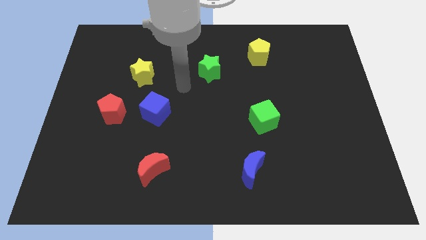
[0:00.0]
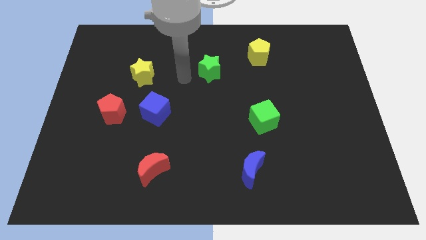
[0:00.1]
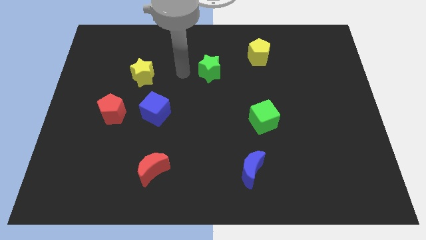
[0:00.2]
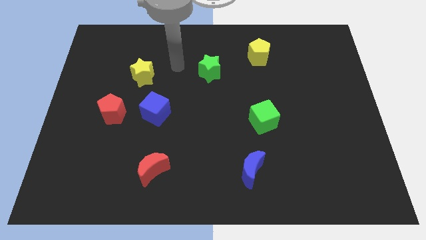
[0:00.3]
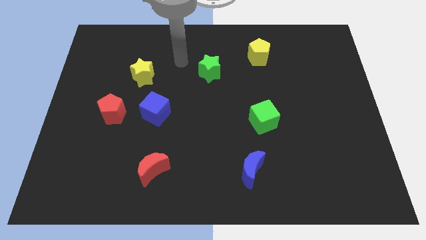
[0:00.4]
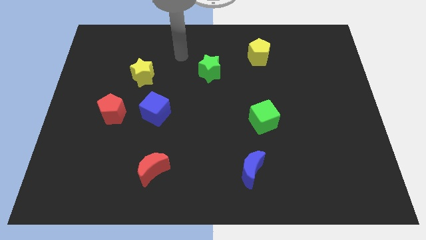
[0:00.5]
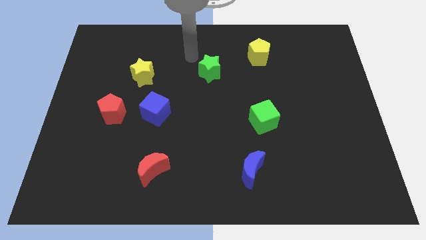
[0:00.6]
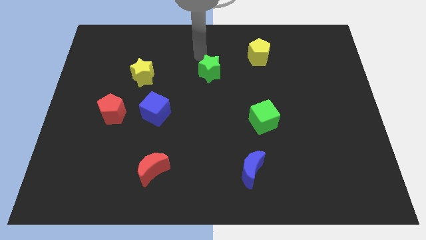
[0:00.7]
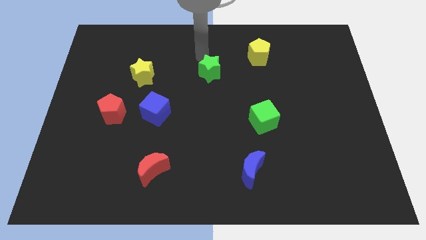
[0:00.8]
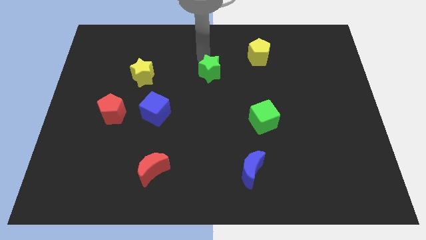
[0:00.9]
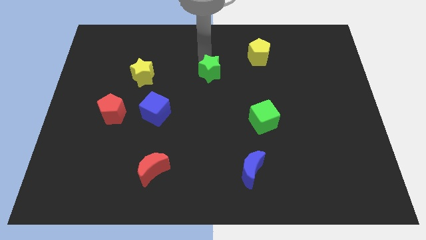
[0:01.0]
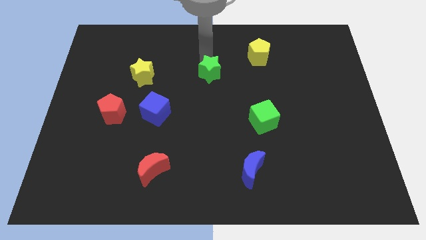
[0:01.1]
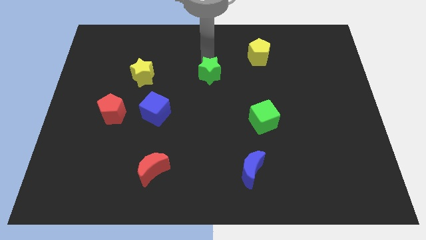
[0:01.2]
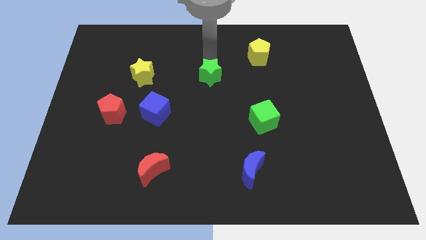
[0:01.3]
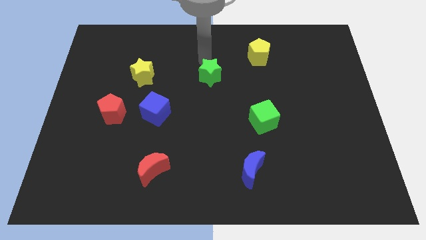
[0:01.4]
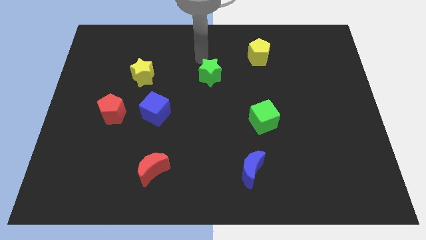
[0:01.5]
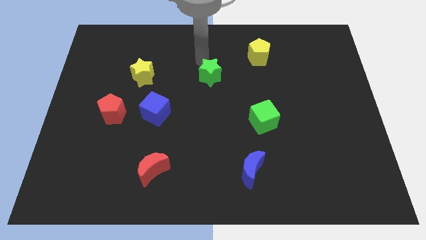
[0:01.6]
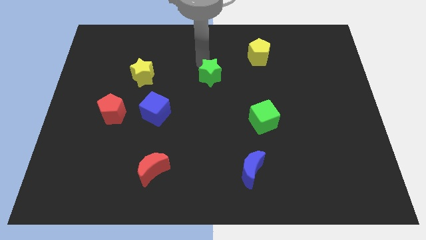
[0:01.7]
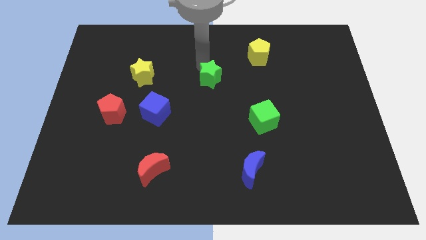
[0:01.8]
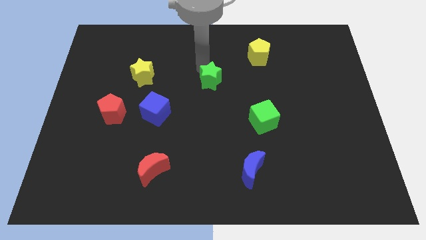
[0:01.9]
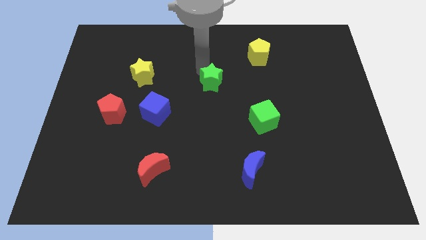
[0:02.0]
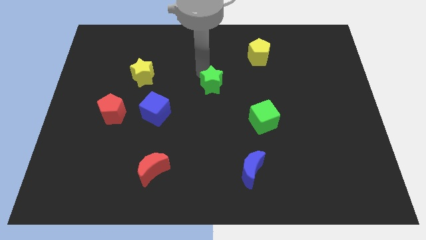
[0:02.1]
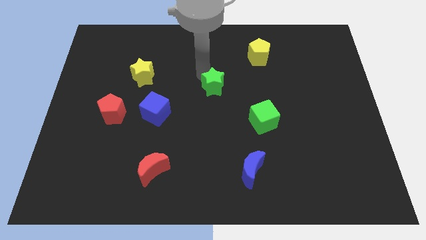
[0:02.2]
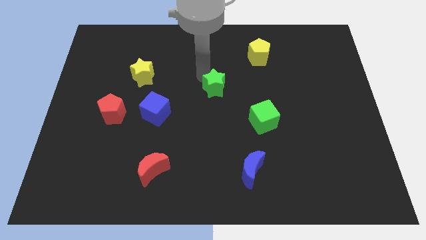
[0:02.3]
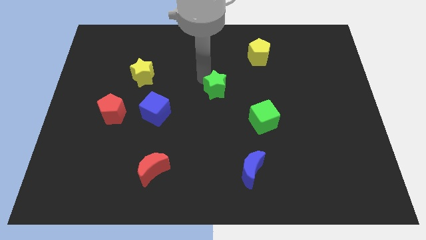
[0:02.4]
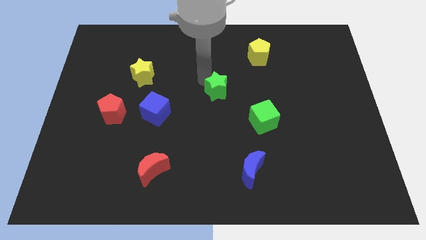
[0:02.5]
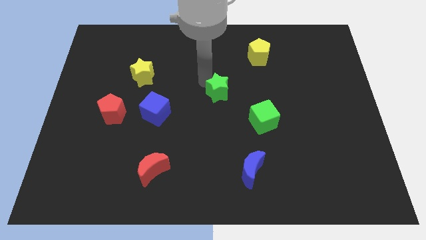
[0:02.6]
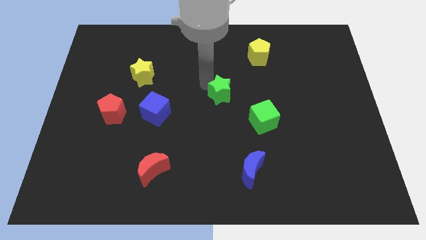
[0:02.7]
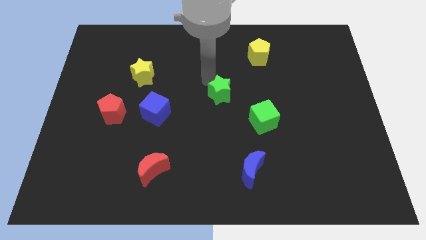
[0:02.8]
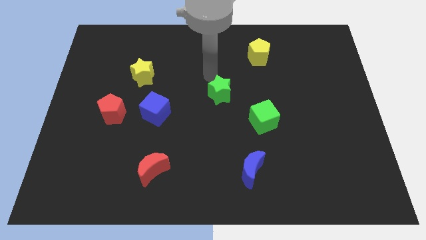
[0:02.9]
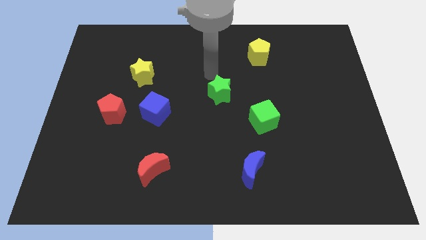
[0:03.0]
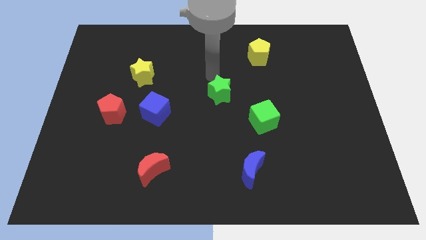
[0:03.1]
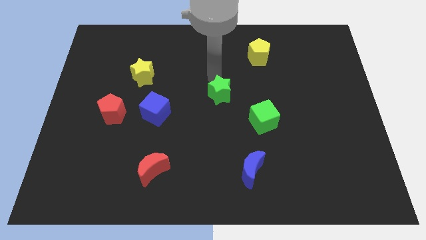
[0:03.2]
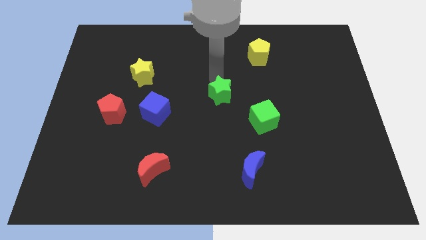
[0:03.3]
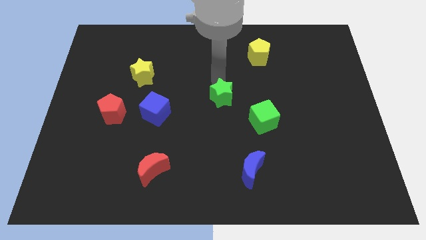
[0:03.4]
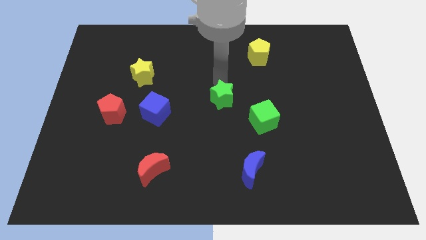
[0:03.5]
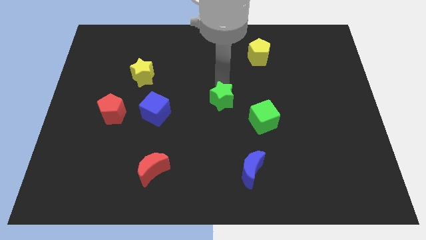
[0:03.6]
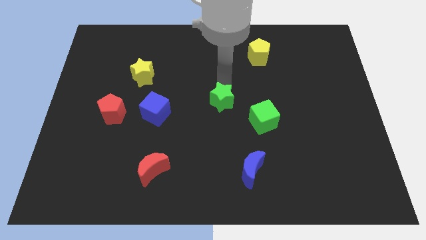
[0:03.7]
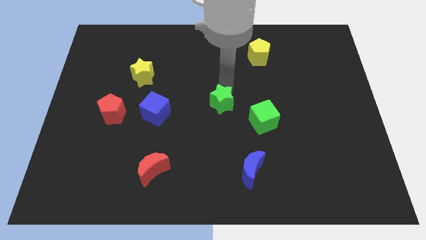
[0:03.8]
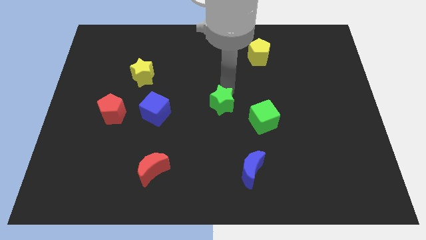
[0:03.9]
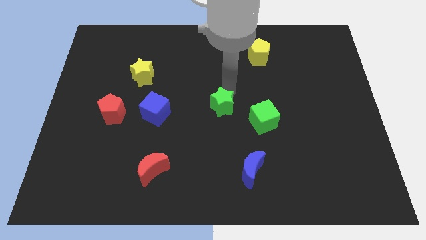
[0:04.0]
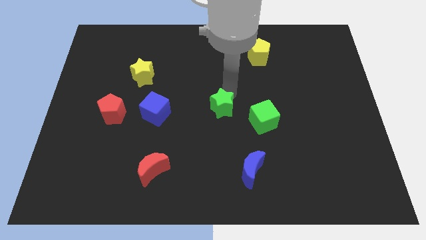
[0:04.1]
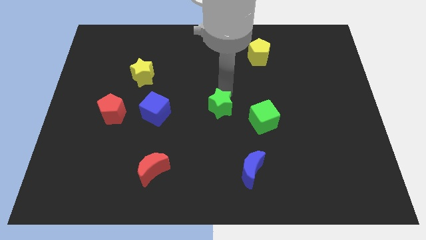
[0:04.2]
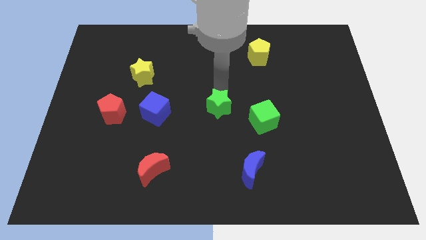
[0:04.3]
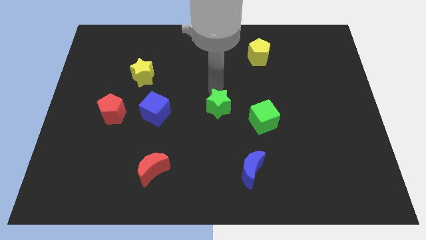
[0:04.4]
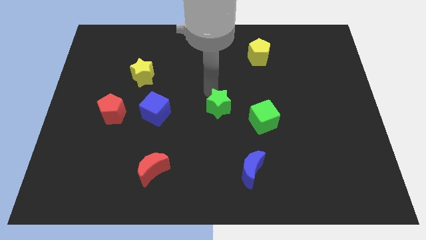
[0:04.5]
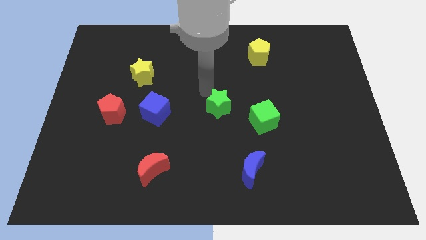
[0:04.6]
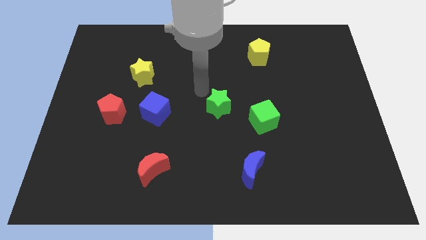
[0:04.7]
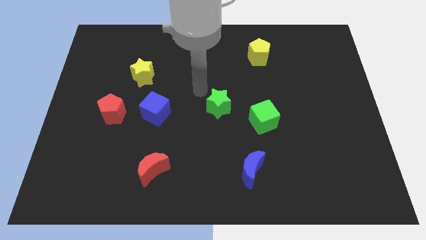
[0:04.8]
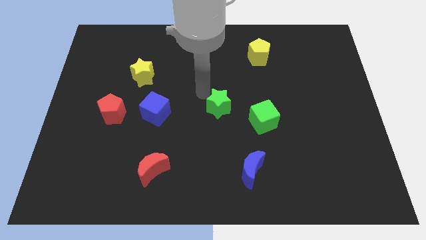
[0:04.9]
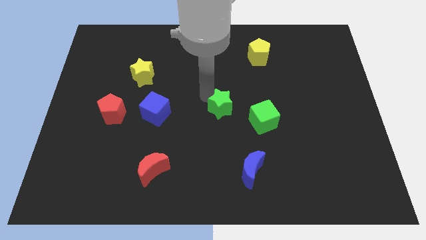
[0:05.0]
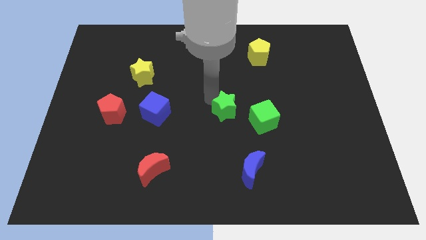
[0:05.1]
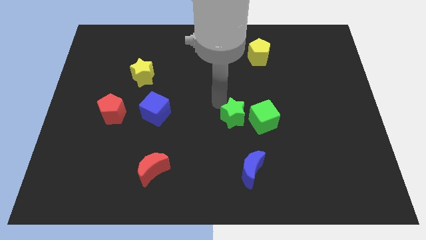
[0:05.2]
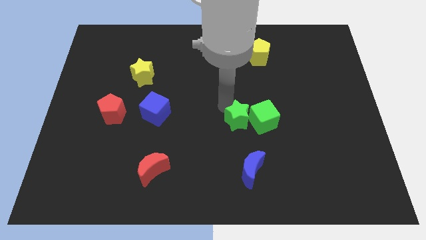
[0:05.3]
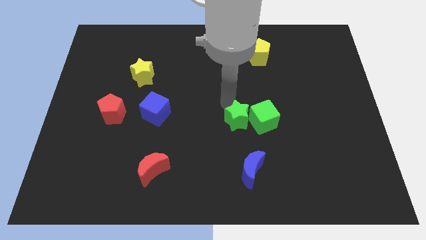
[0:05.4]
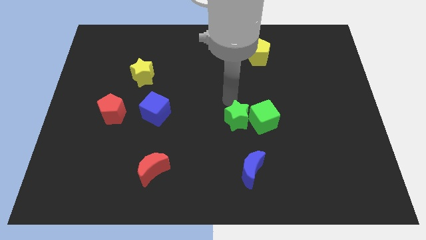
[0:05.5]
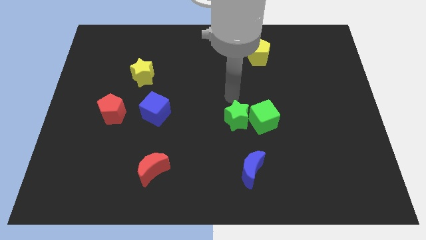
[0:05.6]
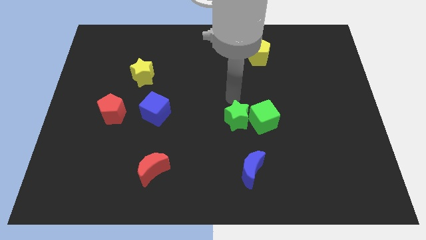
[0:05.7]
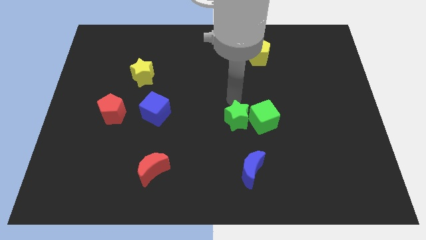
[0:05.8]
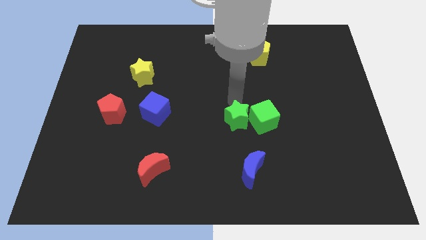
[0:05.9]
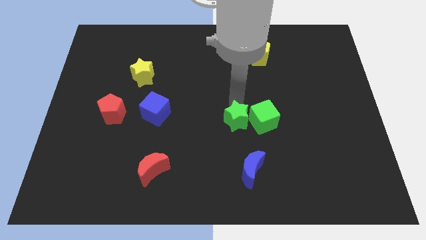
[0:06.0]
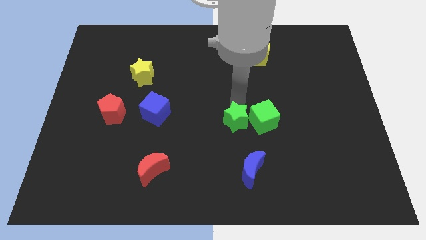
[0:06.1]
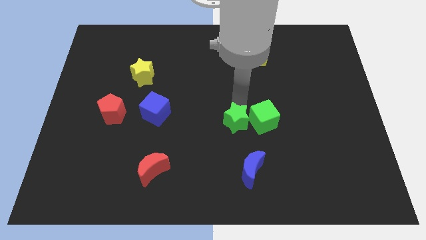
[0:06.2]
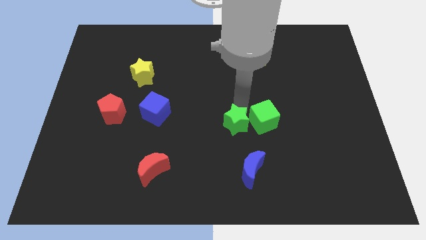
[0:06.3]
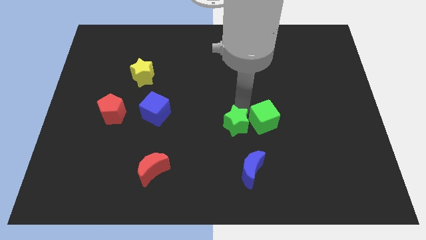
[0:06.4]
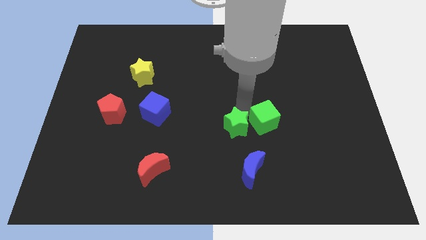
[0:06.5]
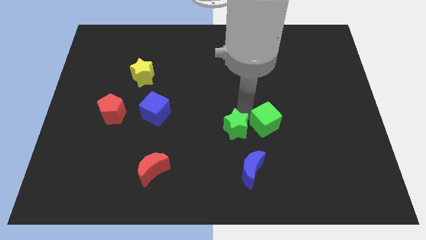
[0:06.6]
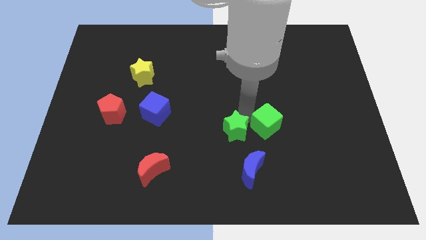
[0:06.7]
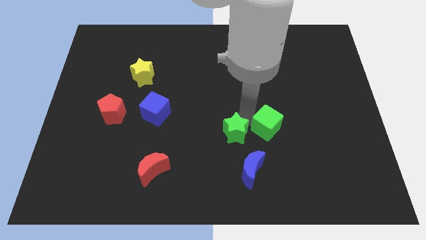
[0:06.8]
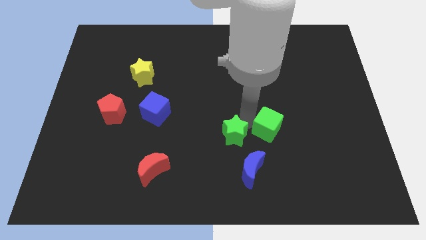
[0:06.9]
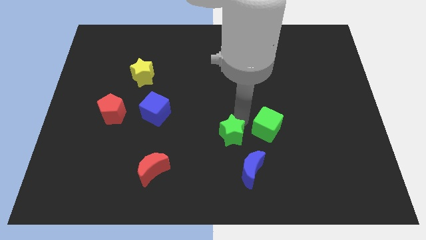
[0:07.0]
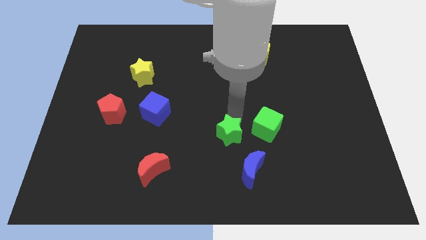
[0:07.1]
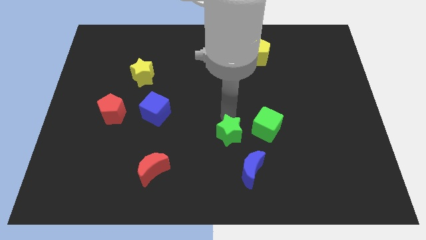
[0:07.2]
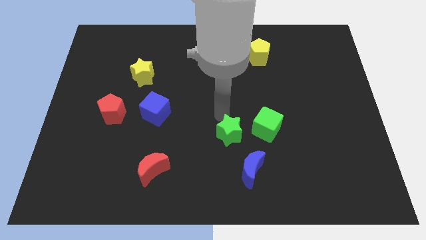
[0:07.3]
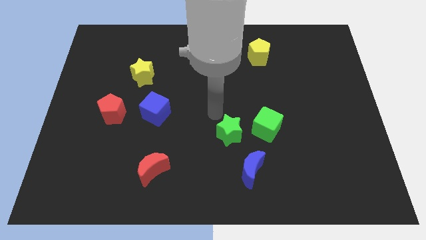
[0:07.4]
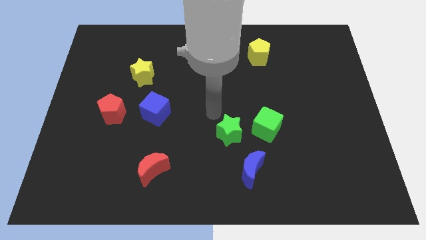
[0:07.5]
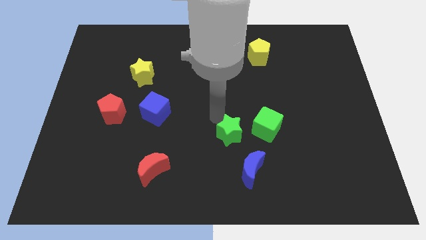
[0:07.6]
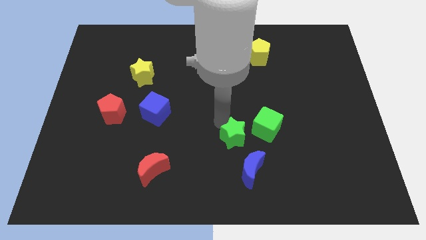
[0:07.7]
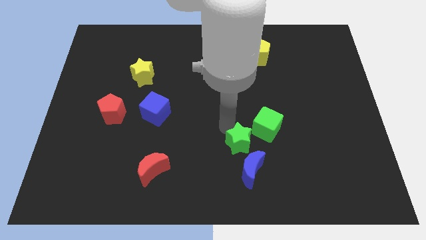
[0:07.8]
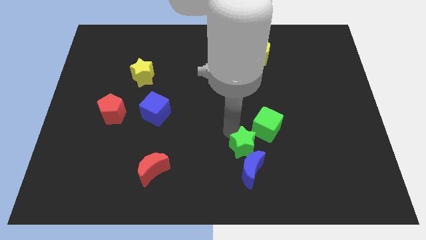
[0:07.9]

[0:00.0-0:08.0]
move the green star next to the blue moon

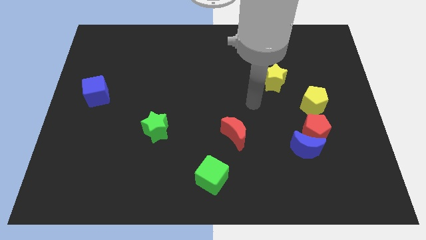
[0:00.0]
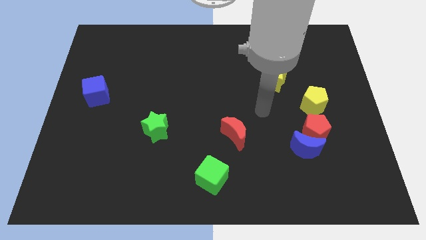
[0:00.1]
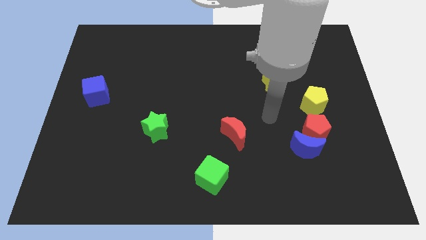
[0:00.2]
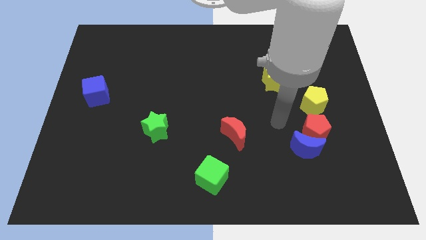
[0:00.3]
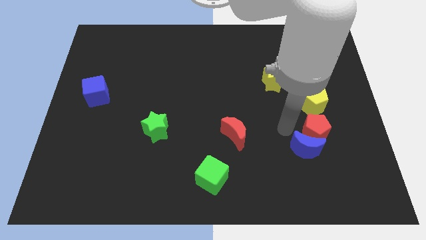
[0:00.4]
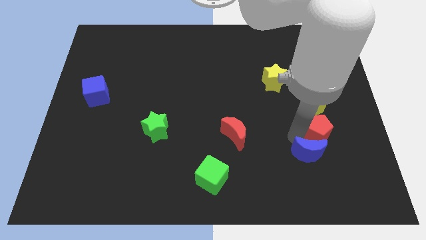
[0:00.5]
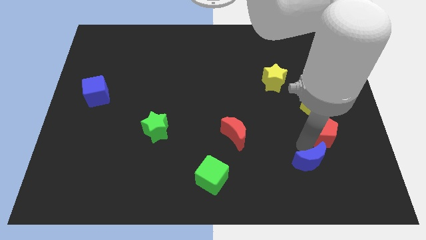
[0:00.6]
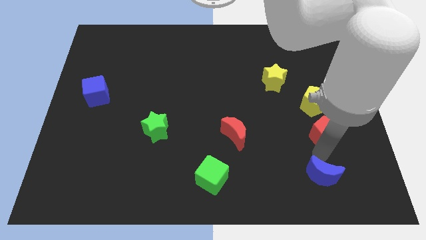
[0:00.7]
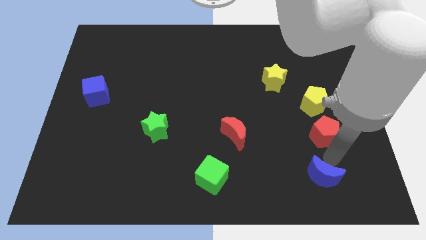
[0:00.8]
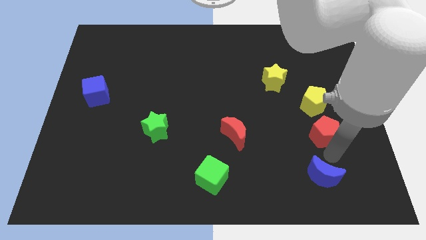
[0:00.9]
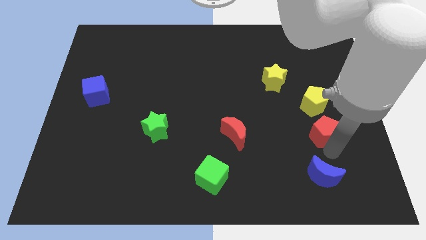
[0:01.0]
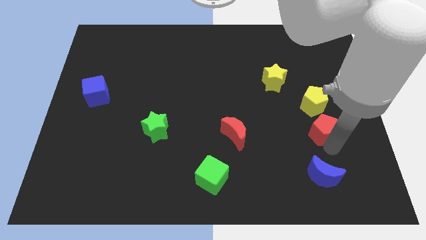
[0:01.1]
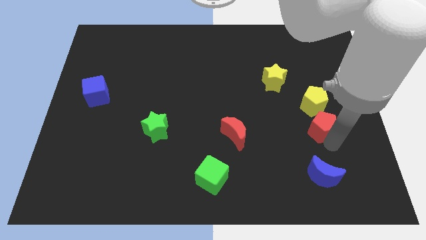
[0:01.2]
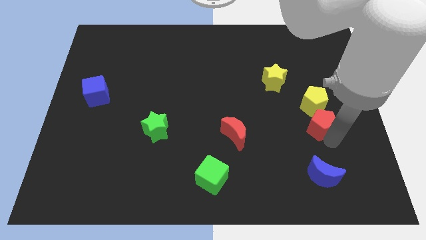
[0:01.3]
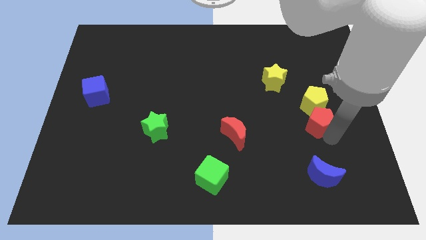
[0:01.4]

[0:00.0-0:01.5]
slide the red pentagon to the yellow pentagon
